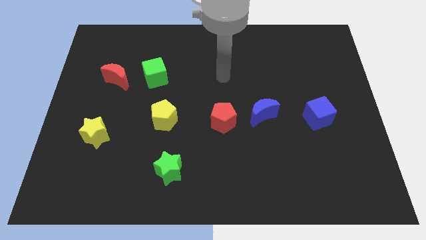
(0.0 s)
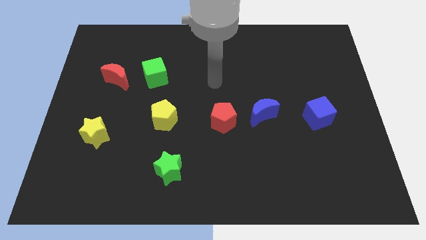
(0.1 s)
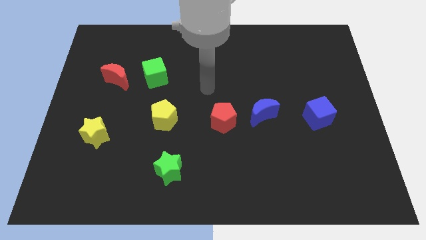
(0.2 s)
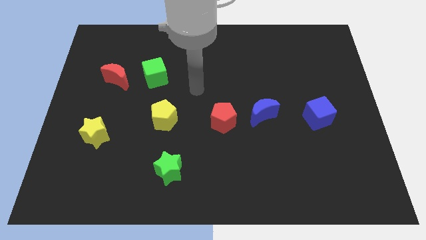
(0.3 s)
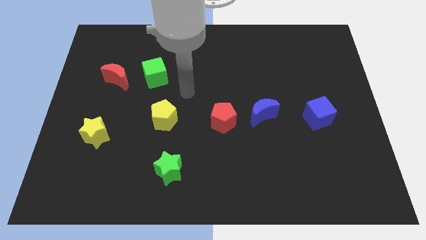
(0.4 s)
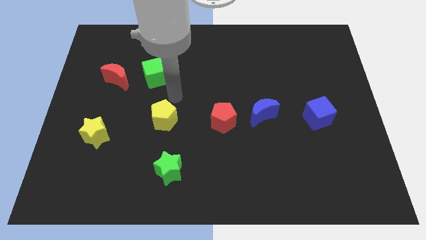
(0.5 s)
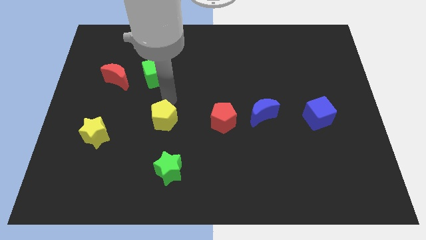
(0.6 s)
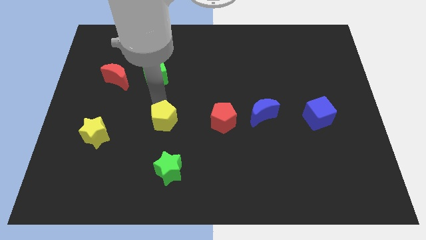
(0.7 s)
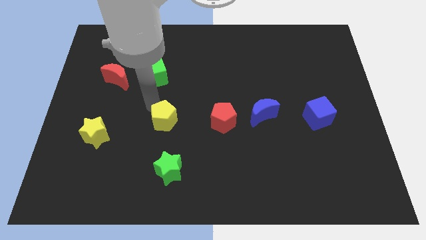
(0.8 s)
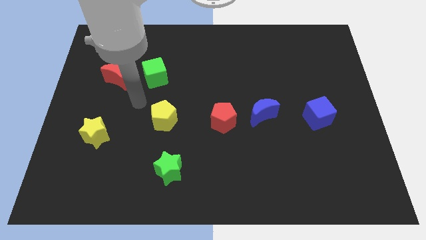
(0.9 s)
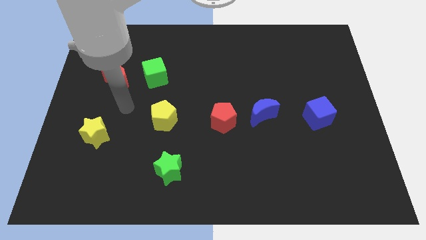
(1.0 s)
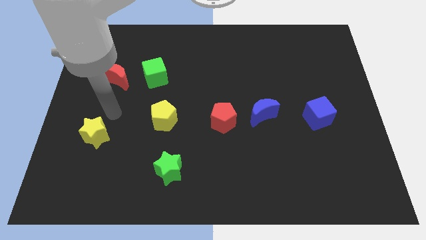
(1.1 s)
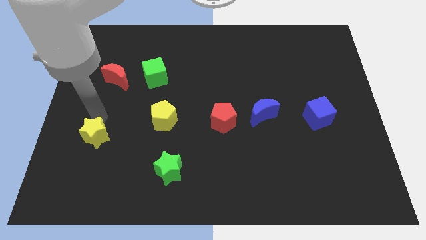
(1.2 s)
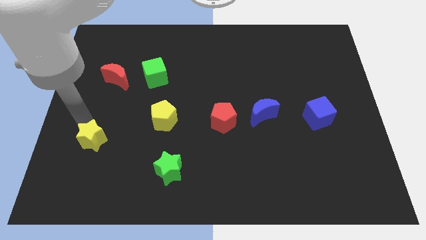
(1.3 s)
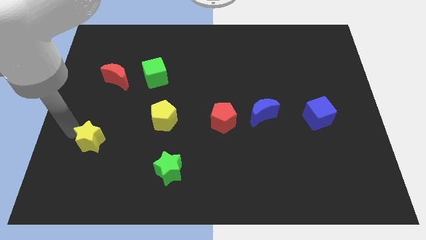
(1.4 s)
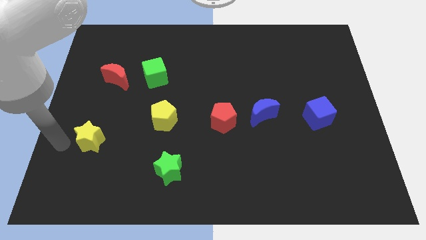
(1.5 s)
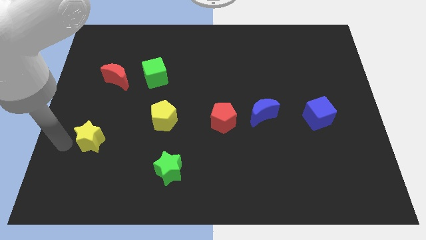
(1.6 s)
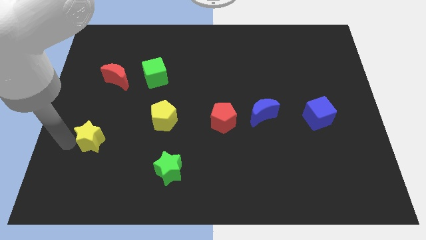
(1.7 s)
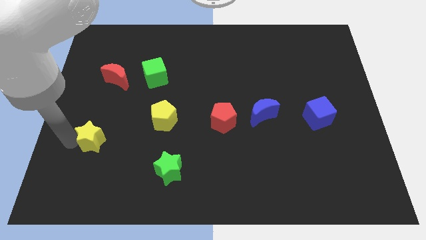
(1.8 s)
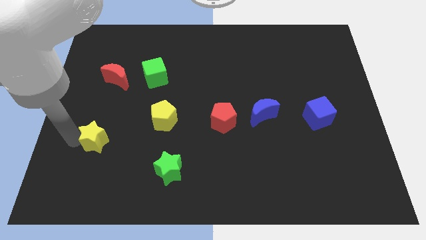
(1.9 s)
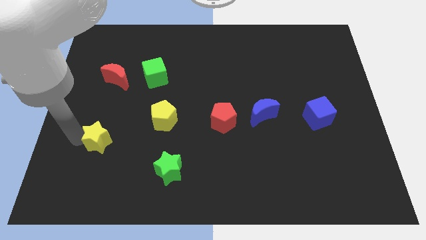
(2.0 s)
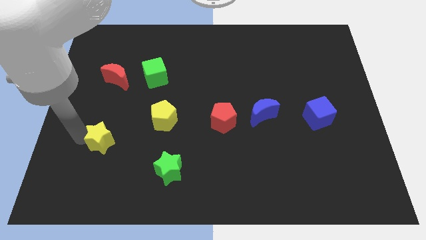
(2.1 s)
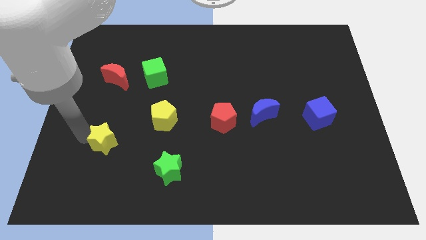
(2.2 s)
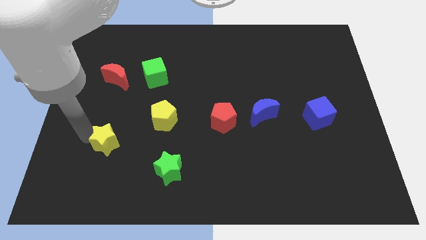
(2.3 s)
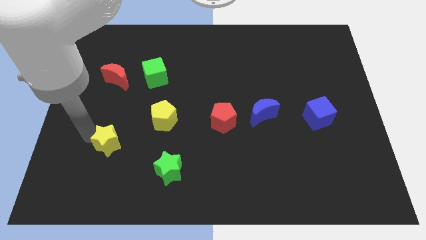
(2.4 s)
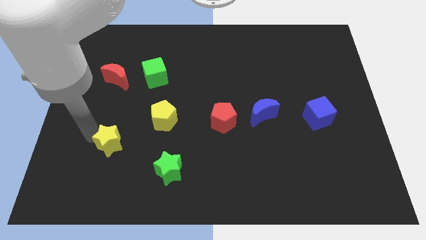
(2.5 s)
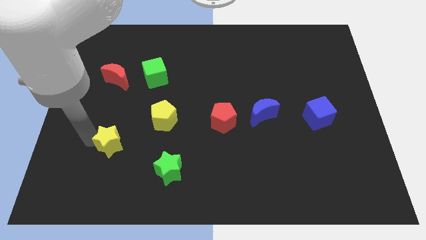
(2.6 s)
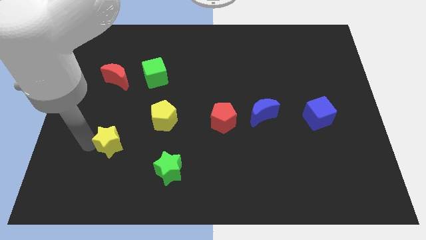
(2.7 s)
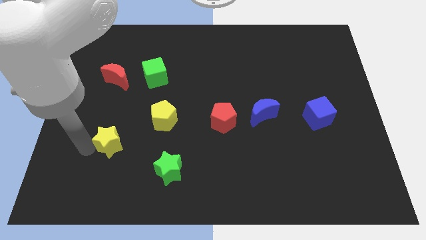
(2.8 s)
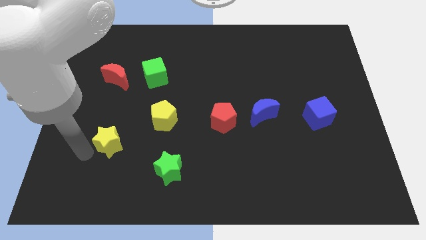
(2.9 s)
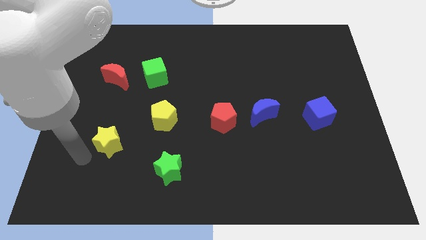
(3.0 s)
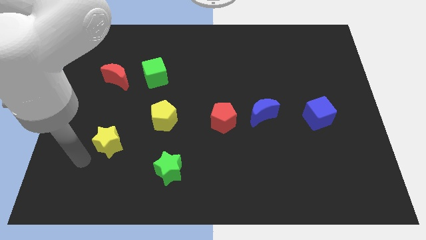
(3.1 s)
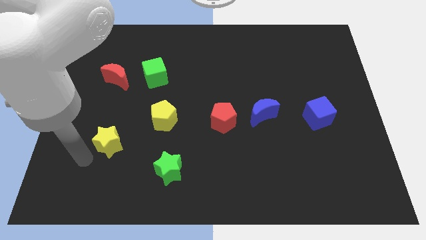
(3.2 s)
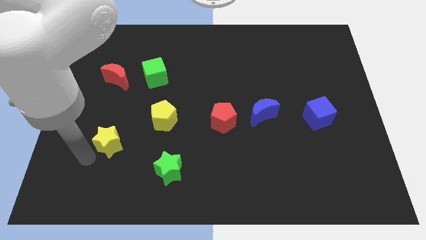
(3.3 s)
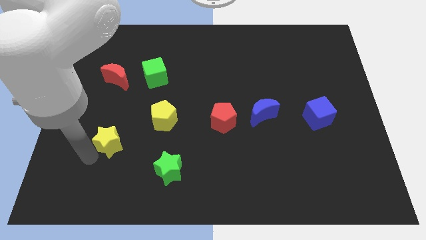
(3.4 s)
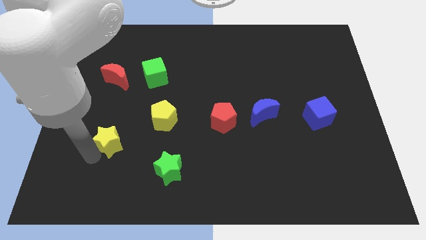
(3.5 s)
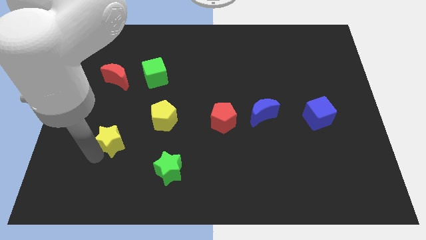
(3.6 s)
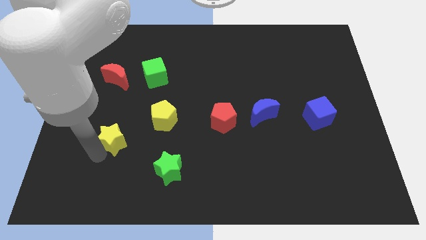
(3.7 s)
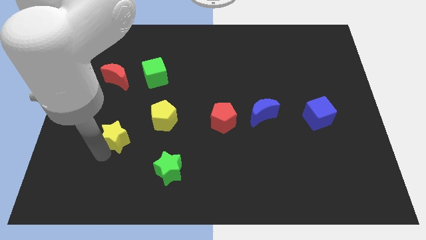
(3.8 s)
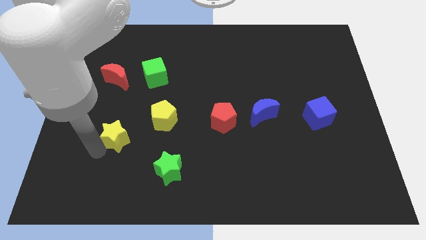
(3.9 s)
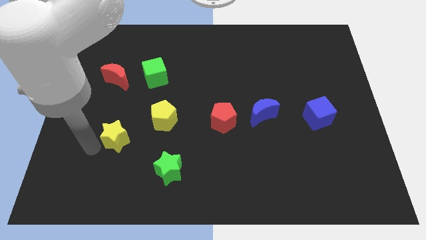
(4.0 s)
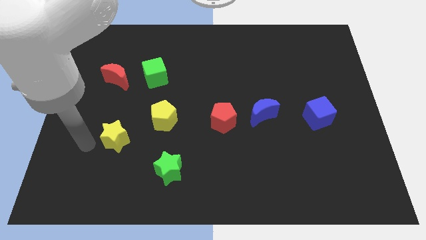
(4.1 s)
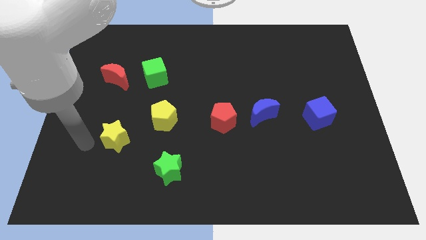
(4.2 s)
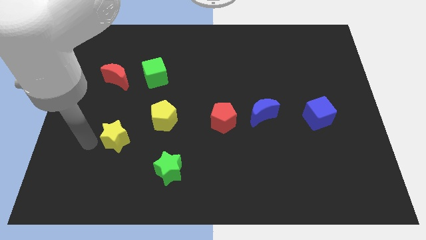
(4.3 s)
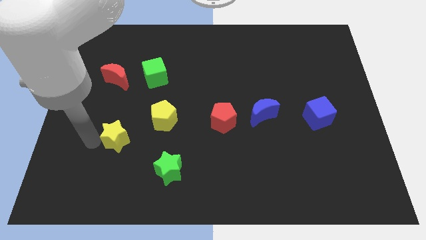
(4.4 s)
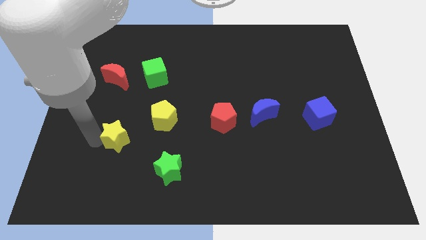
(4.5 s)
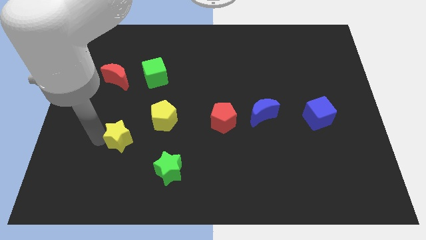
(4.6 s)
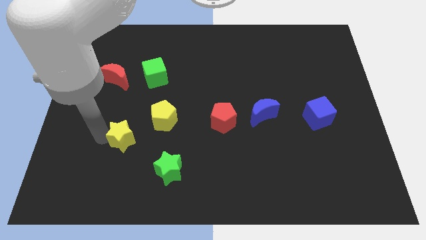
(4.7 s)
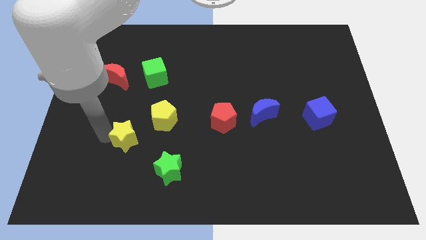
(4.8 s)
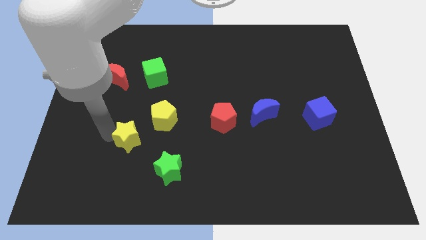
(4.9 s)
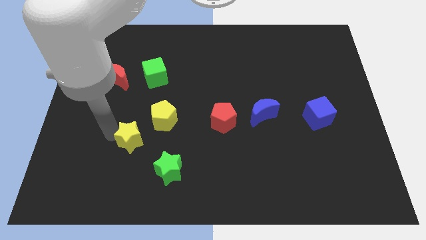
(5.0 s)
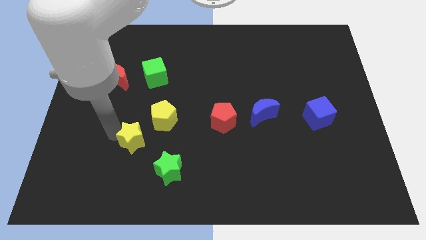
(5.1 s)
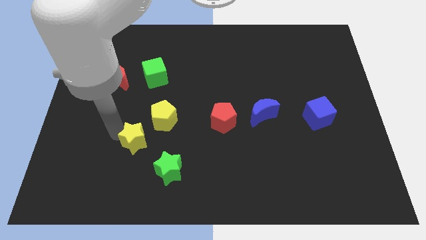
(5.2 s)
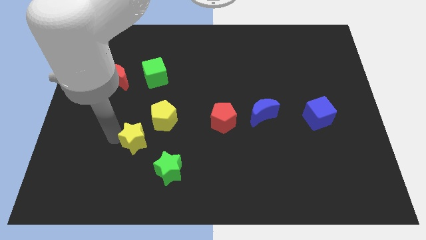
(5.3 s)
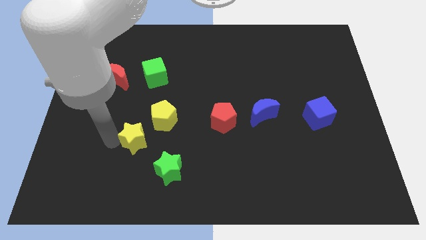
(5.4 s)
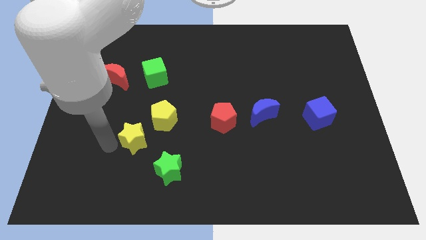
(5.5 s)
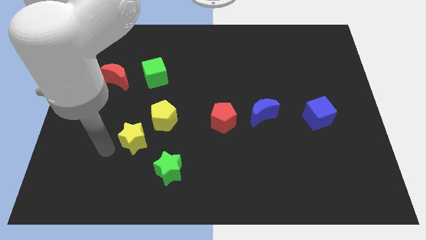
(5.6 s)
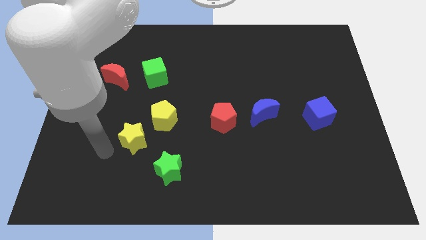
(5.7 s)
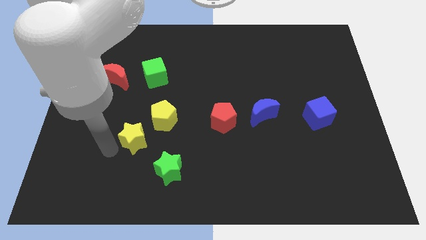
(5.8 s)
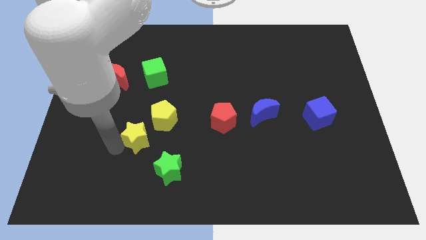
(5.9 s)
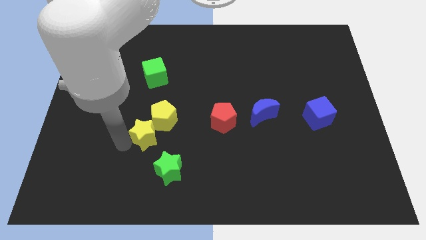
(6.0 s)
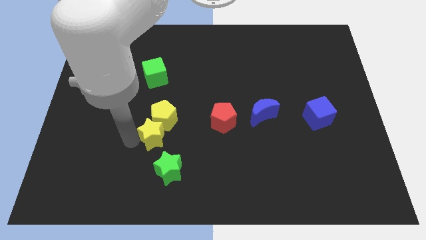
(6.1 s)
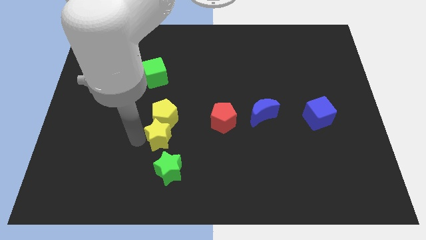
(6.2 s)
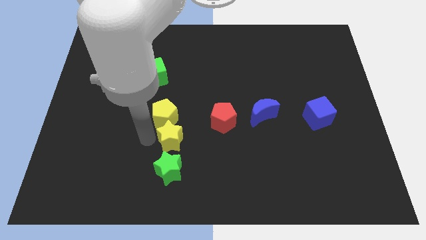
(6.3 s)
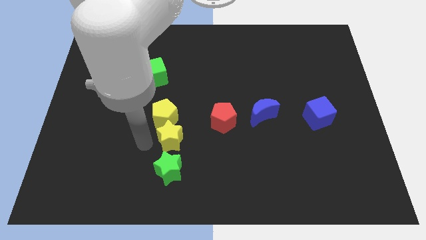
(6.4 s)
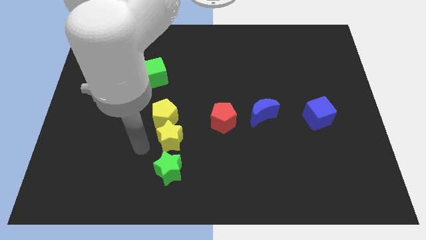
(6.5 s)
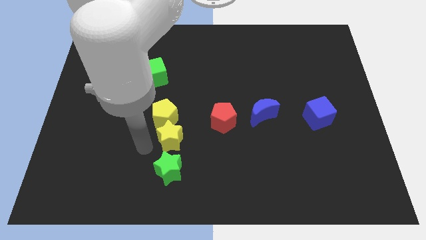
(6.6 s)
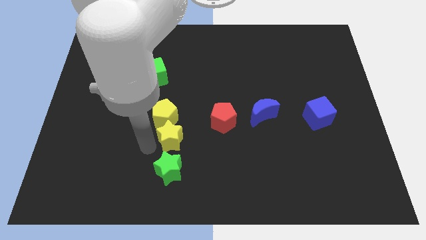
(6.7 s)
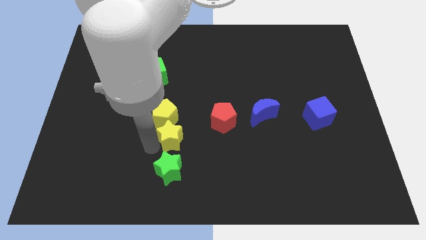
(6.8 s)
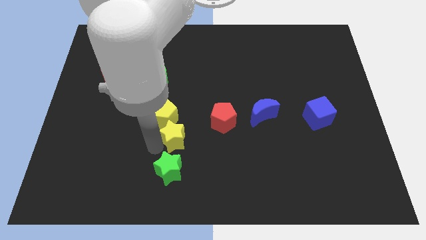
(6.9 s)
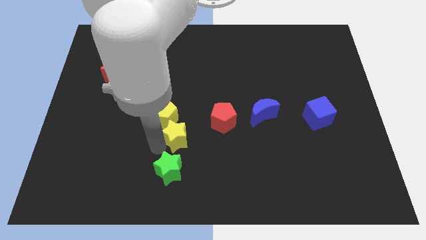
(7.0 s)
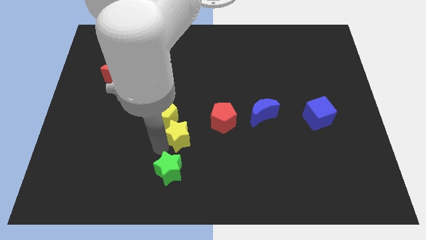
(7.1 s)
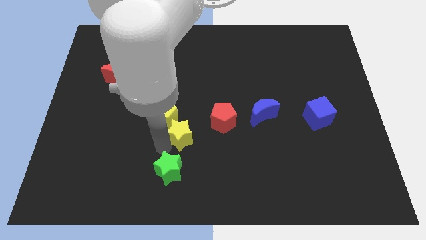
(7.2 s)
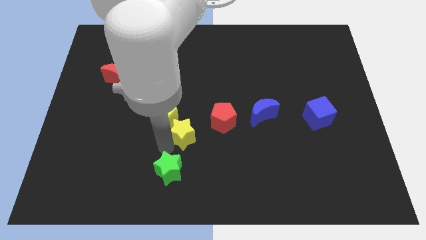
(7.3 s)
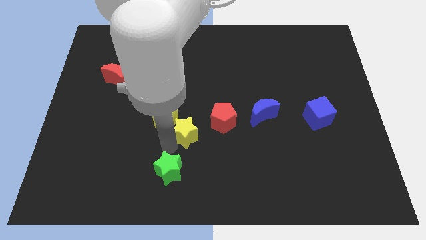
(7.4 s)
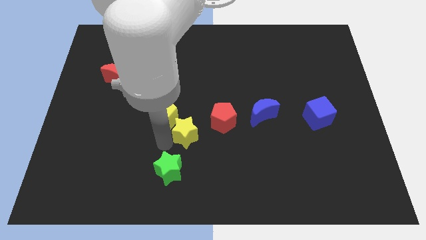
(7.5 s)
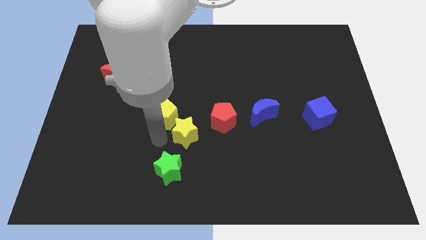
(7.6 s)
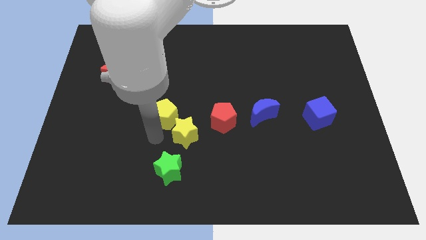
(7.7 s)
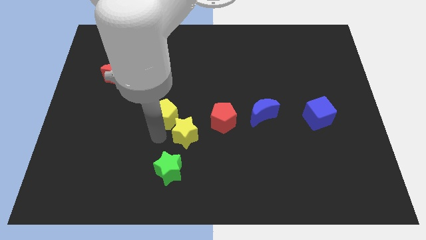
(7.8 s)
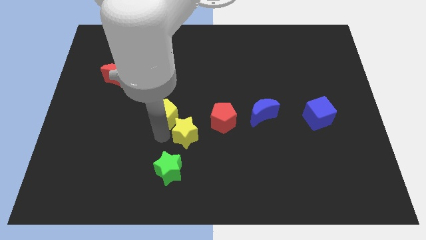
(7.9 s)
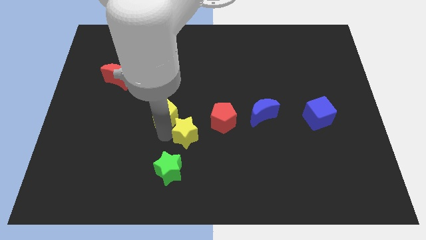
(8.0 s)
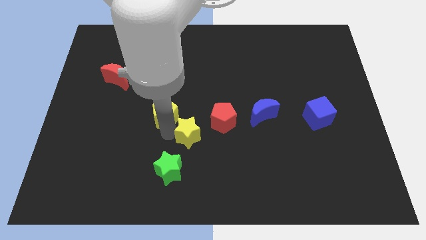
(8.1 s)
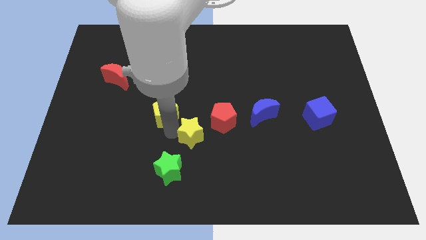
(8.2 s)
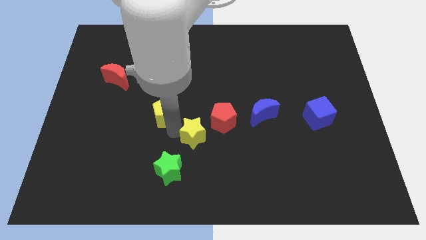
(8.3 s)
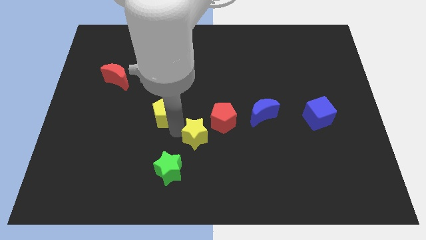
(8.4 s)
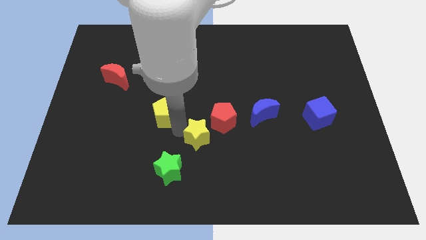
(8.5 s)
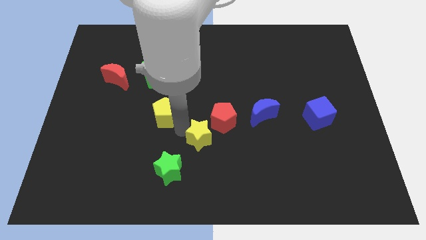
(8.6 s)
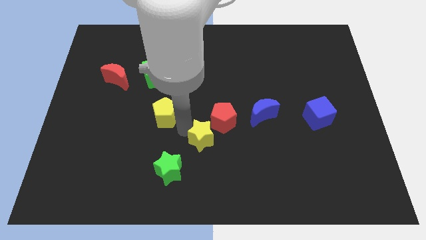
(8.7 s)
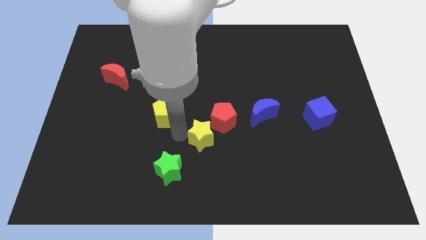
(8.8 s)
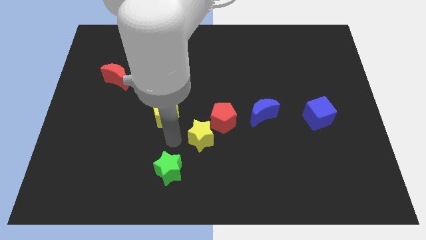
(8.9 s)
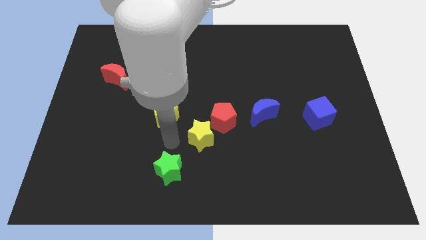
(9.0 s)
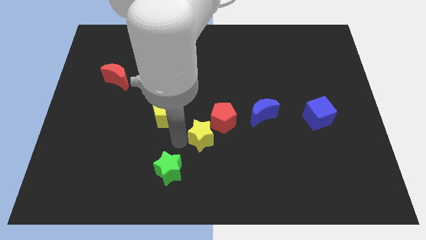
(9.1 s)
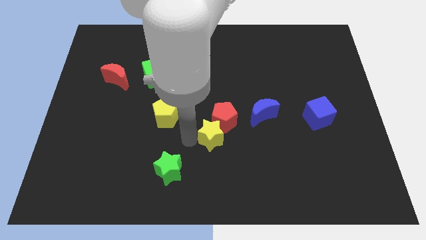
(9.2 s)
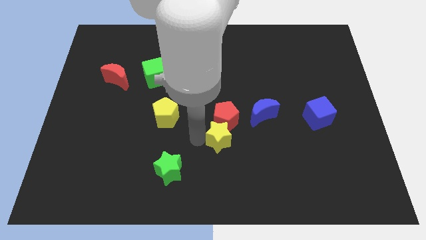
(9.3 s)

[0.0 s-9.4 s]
push the yellow star to the bottom left of the blue moon
